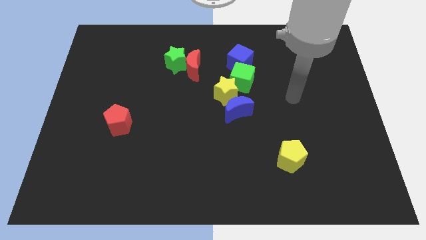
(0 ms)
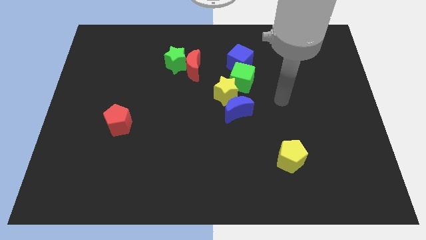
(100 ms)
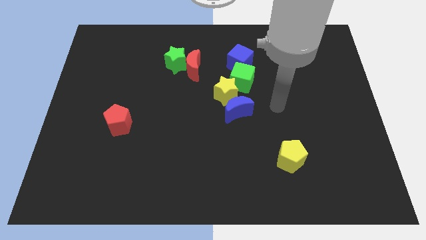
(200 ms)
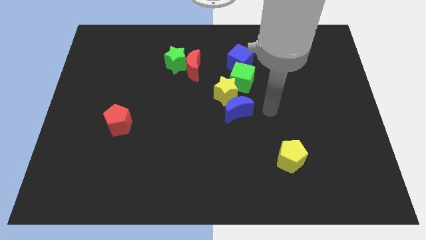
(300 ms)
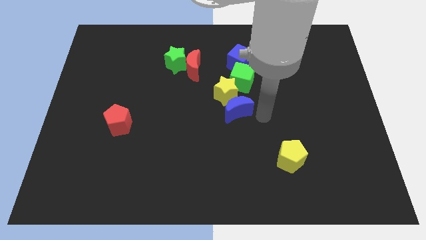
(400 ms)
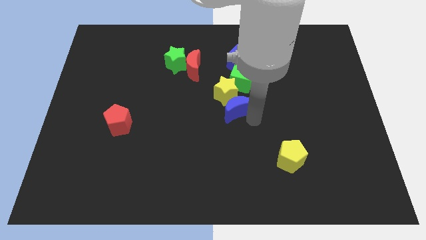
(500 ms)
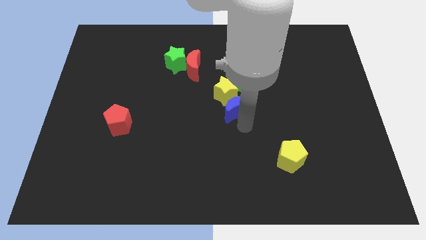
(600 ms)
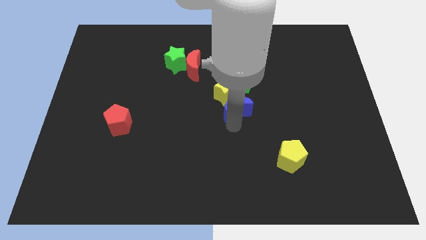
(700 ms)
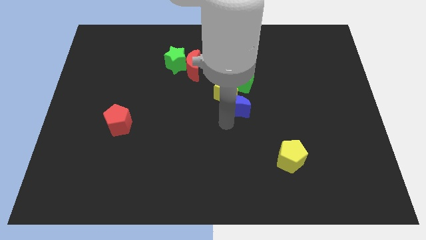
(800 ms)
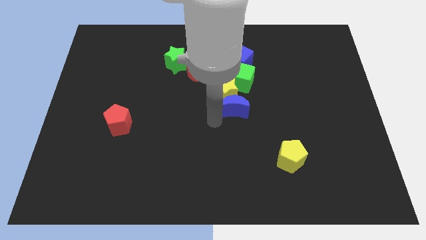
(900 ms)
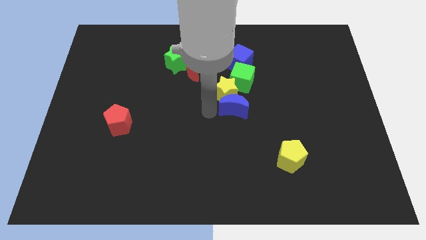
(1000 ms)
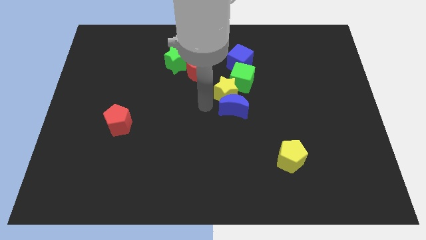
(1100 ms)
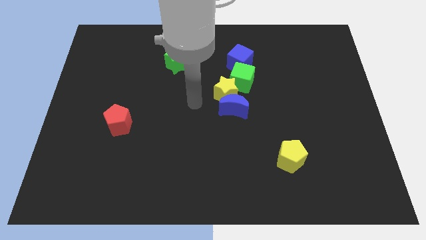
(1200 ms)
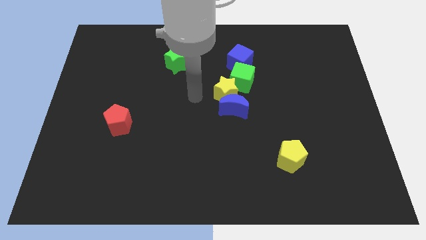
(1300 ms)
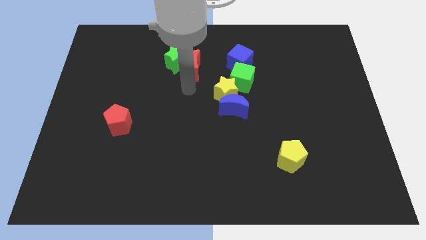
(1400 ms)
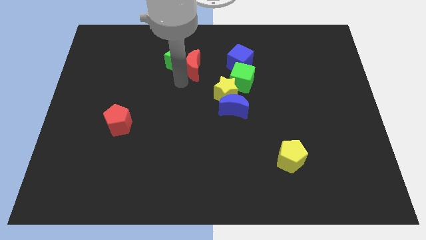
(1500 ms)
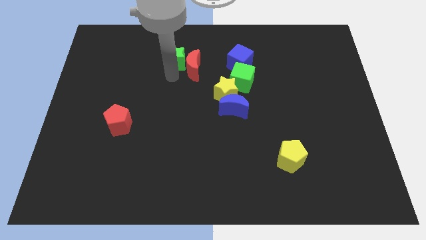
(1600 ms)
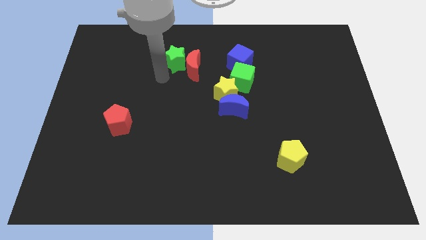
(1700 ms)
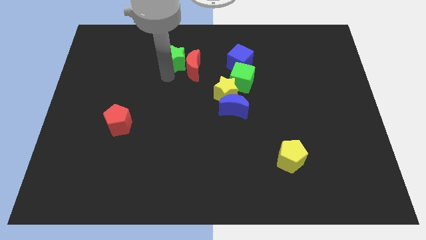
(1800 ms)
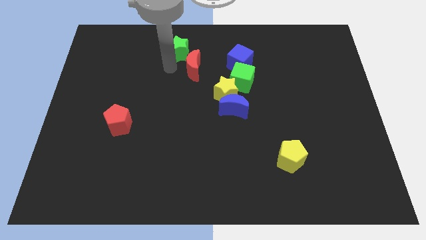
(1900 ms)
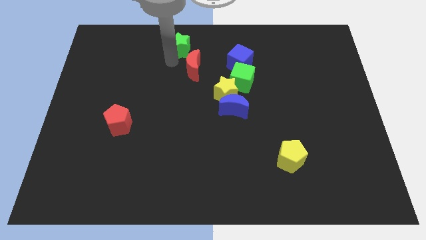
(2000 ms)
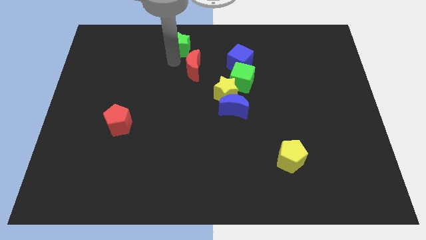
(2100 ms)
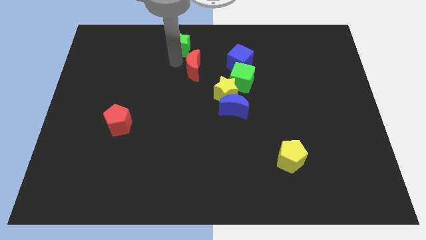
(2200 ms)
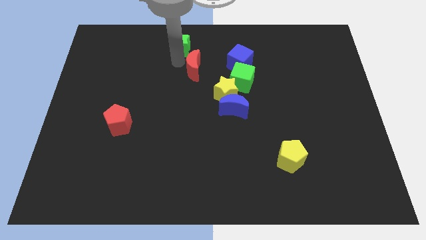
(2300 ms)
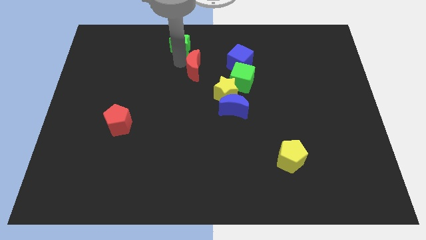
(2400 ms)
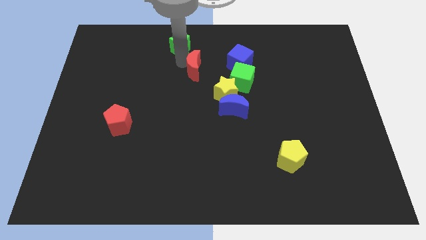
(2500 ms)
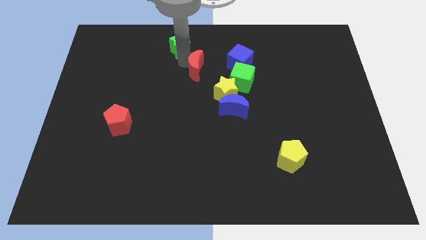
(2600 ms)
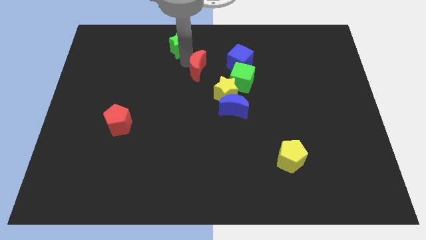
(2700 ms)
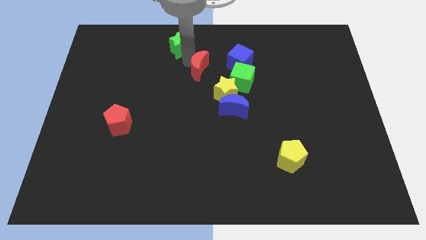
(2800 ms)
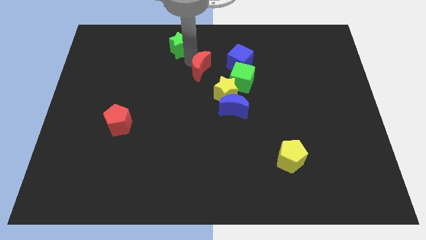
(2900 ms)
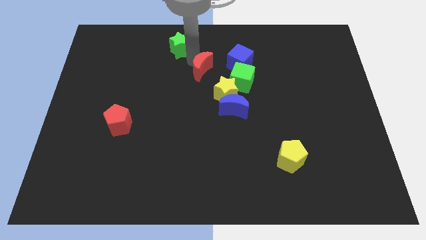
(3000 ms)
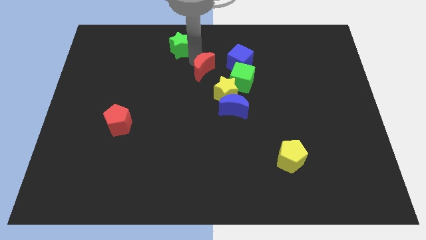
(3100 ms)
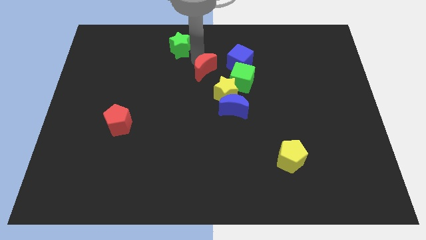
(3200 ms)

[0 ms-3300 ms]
move the red moon away from the green star

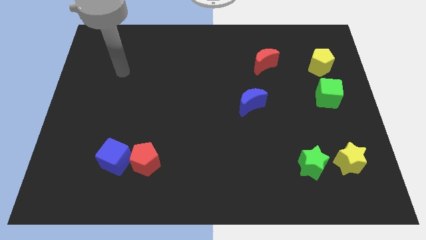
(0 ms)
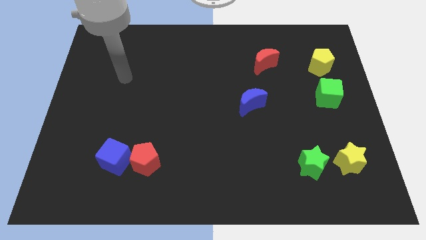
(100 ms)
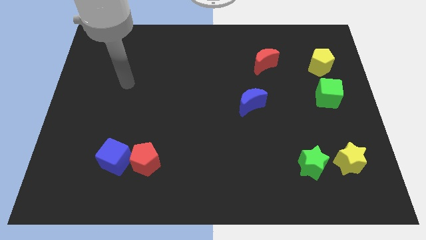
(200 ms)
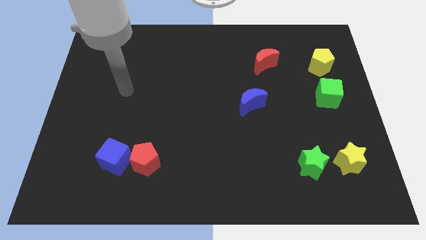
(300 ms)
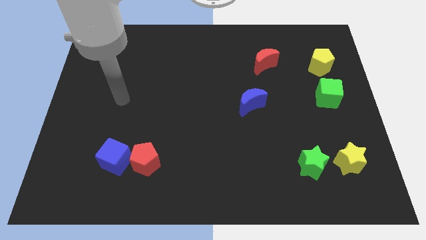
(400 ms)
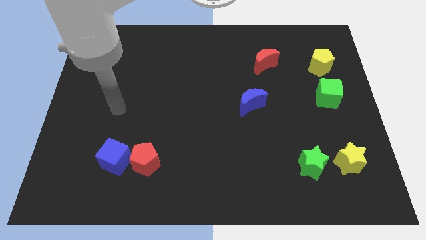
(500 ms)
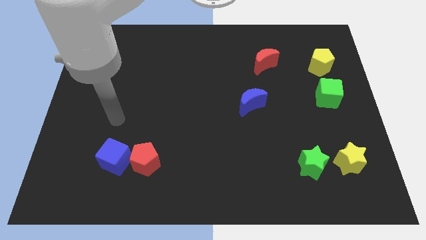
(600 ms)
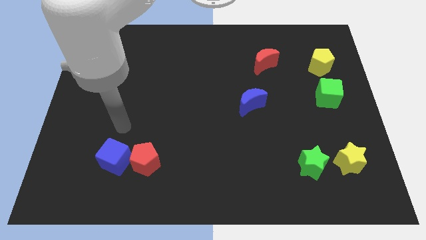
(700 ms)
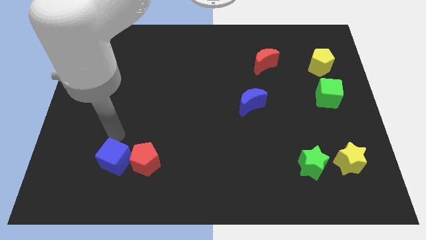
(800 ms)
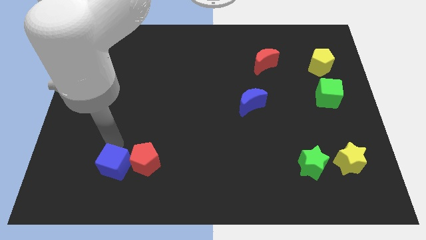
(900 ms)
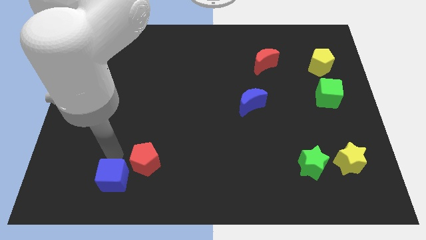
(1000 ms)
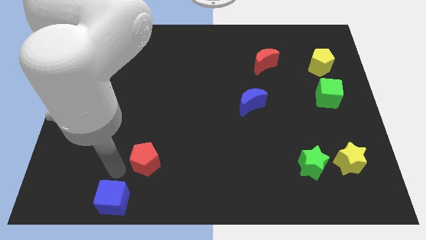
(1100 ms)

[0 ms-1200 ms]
pull the red pentagon apart from the blue cube

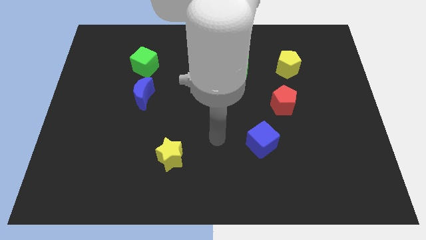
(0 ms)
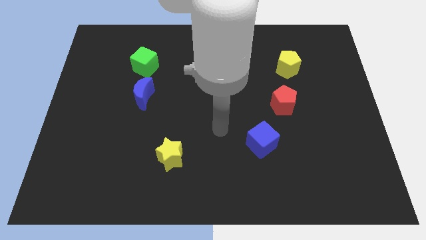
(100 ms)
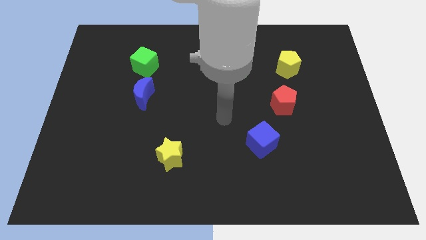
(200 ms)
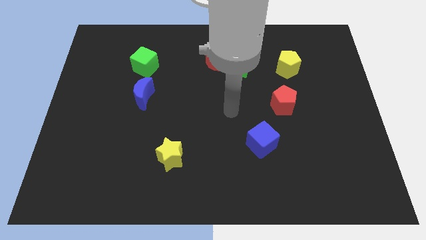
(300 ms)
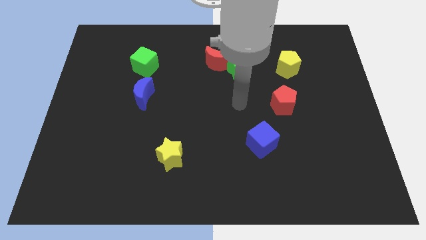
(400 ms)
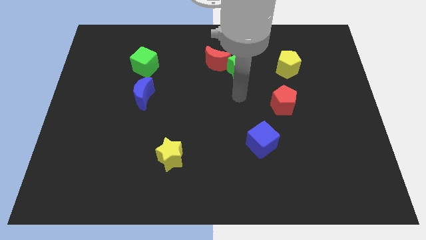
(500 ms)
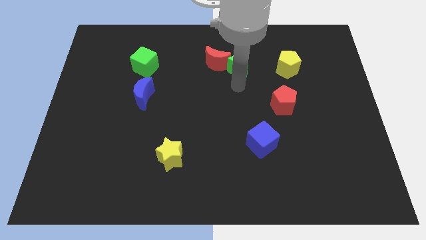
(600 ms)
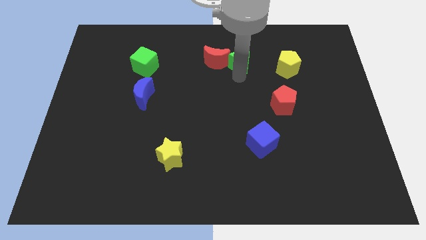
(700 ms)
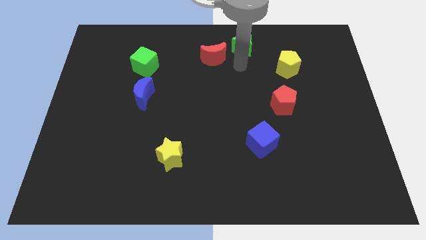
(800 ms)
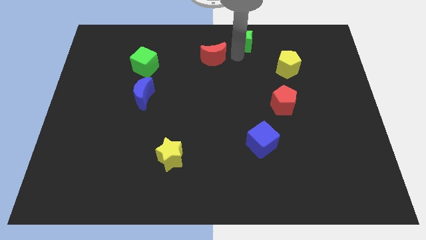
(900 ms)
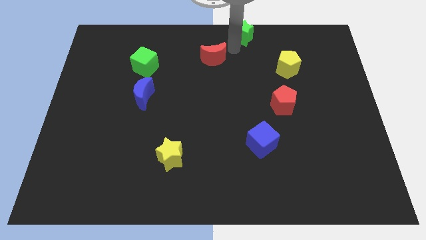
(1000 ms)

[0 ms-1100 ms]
pull the red moon apart from the green star

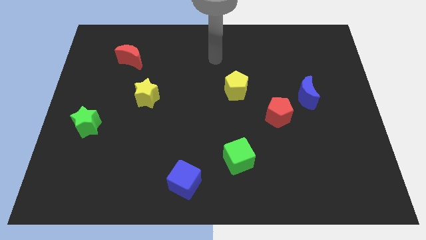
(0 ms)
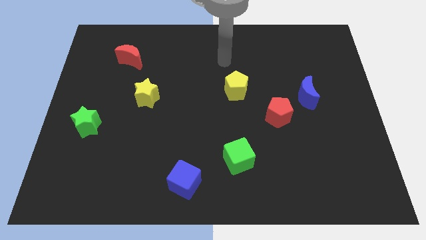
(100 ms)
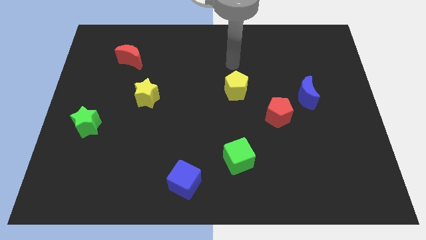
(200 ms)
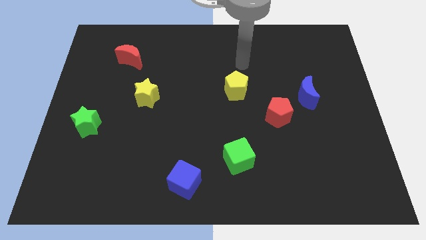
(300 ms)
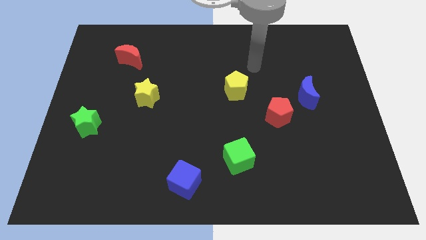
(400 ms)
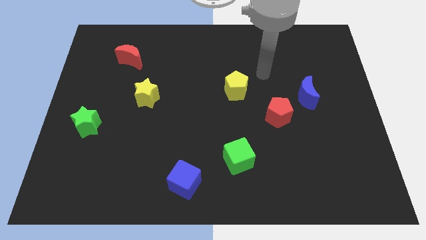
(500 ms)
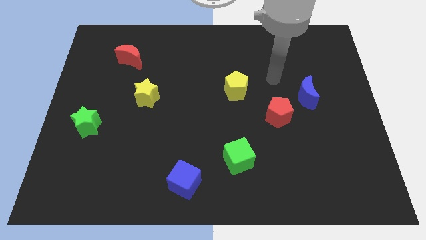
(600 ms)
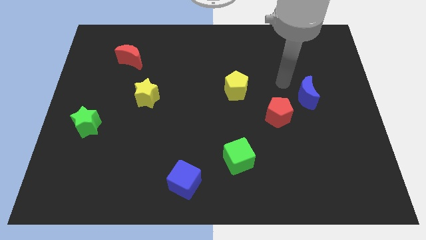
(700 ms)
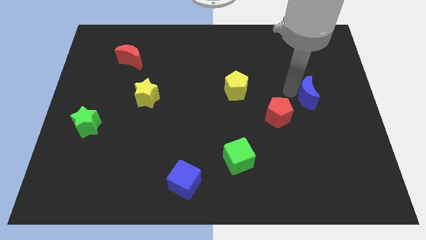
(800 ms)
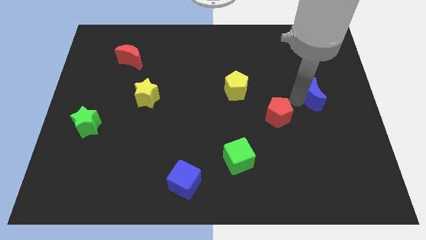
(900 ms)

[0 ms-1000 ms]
separate the red pentagon from the blue moon

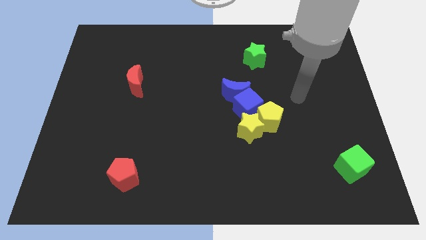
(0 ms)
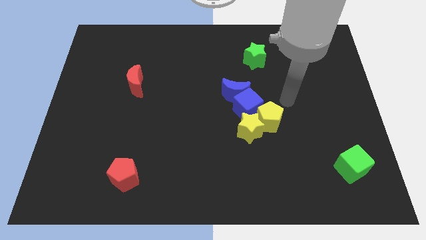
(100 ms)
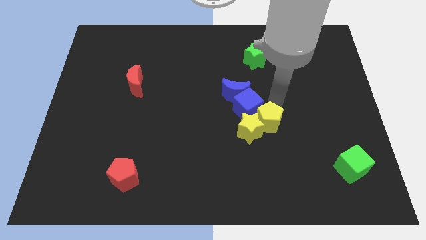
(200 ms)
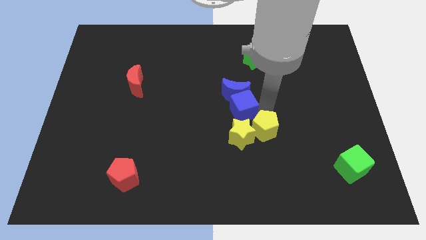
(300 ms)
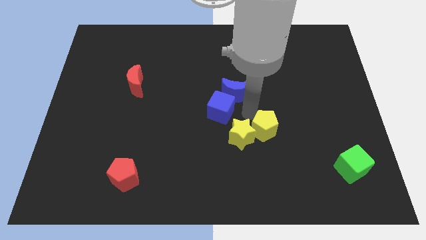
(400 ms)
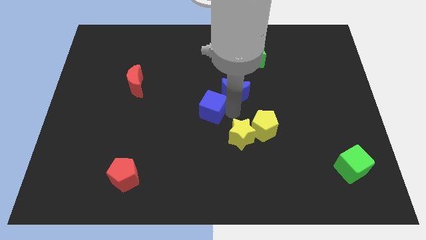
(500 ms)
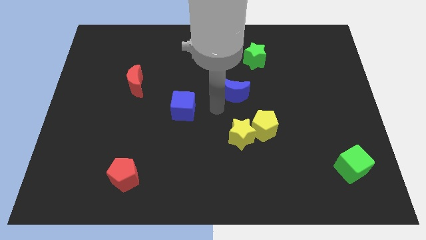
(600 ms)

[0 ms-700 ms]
pull the blue moon apart from the blue cube

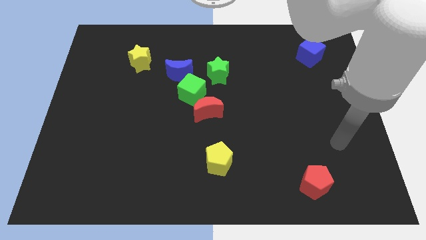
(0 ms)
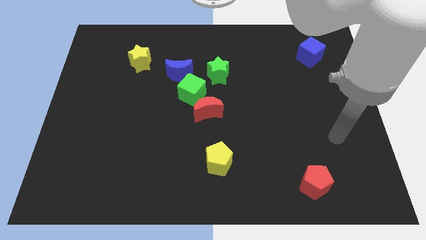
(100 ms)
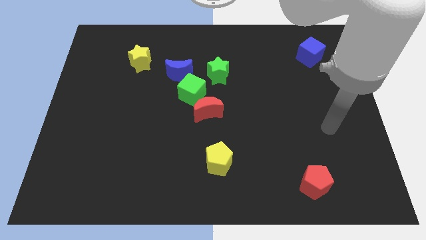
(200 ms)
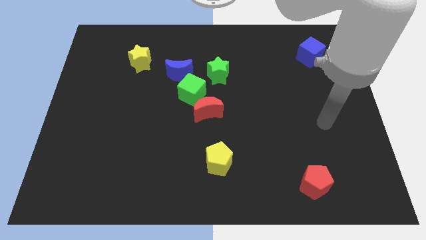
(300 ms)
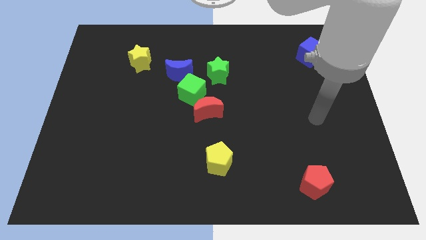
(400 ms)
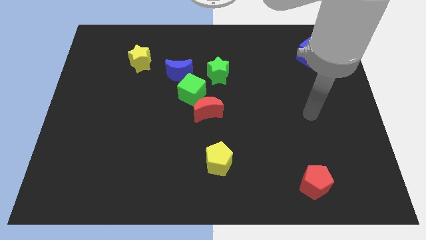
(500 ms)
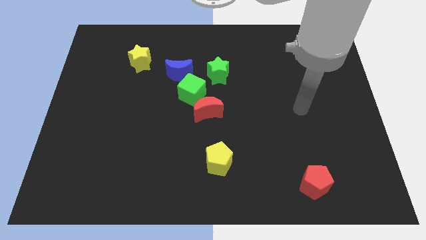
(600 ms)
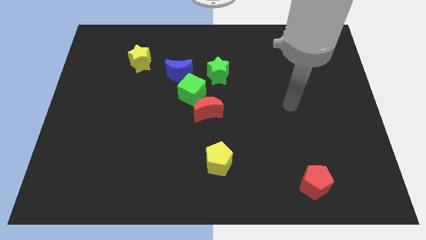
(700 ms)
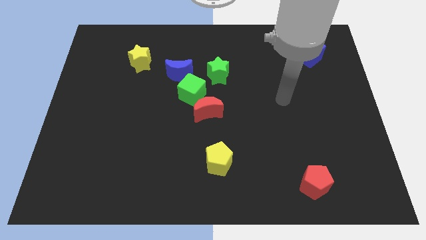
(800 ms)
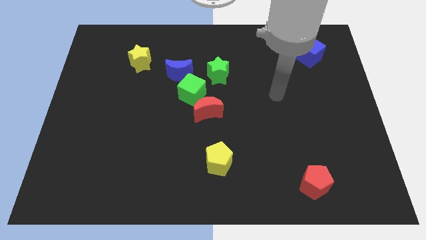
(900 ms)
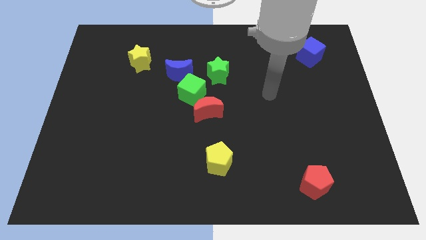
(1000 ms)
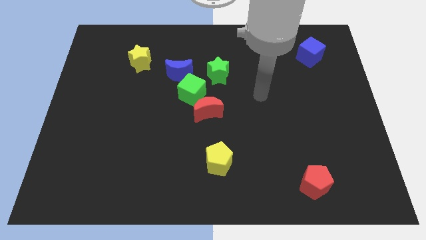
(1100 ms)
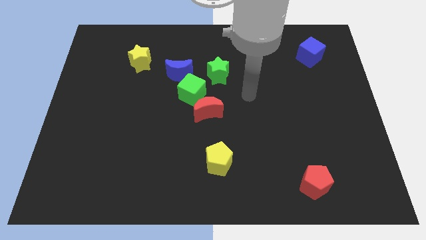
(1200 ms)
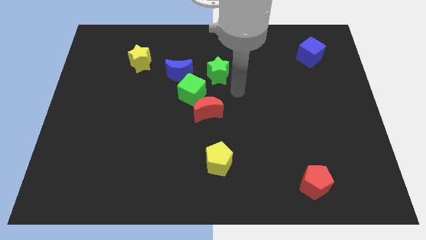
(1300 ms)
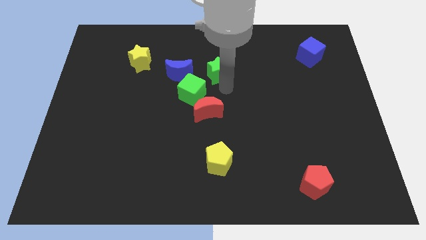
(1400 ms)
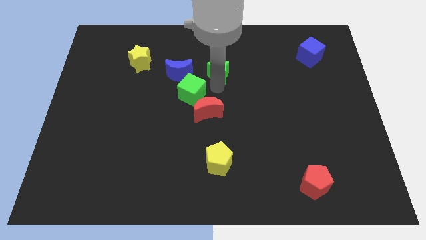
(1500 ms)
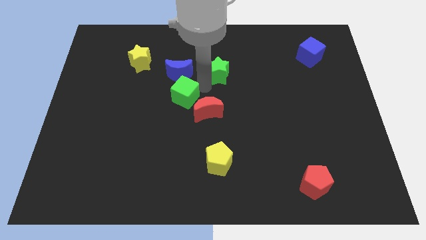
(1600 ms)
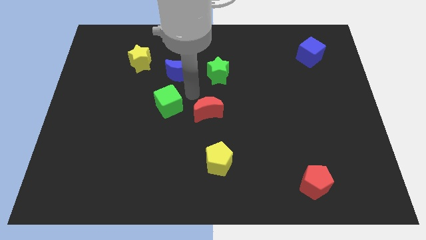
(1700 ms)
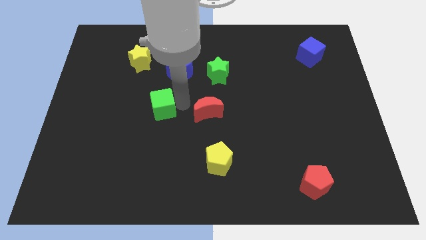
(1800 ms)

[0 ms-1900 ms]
separate the red moon from the green cube
